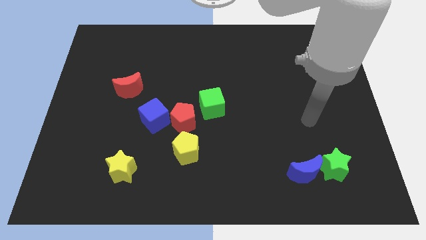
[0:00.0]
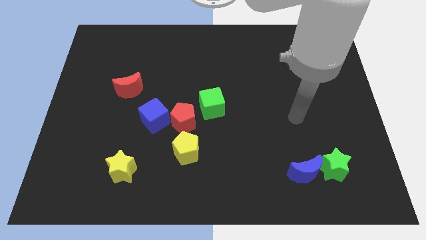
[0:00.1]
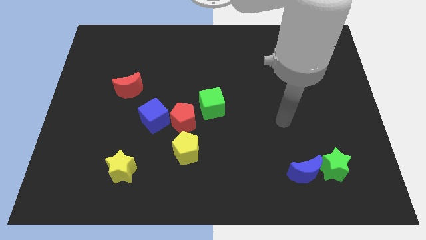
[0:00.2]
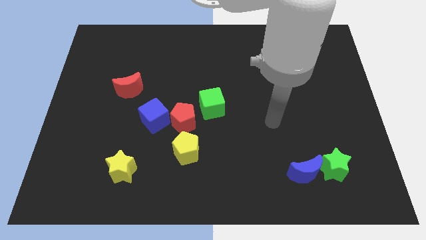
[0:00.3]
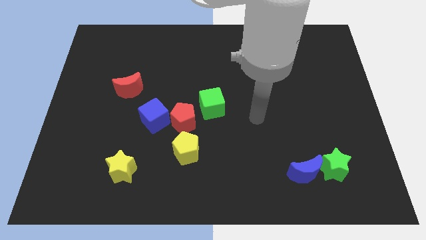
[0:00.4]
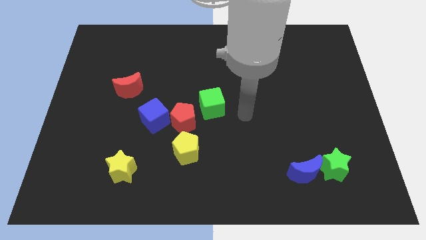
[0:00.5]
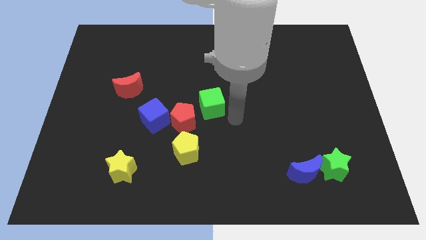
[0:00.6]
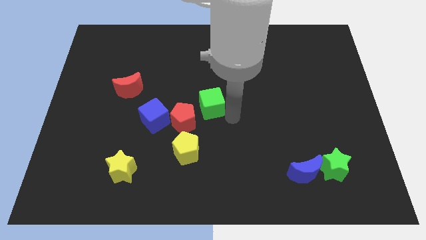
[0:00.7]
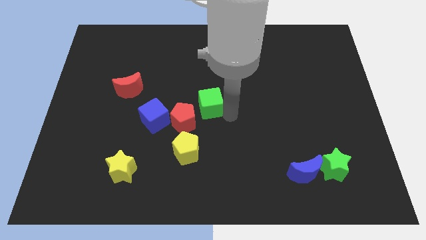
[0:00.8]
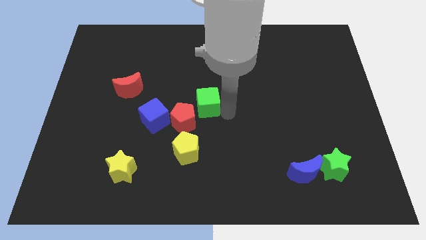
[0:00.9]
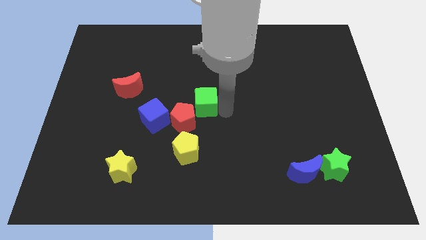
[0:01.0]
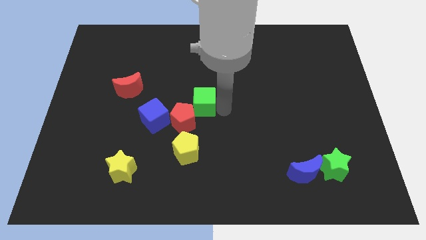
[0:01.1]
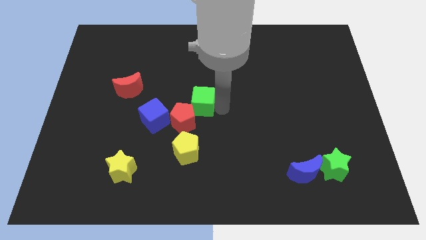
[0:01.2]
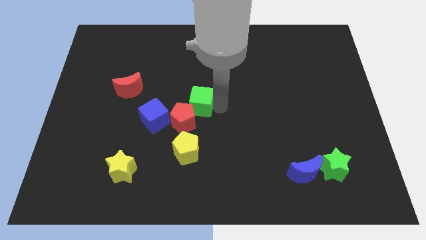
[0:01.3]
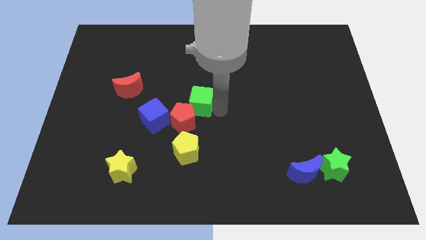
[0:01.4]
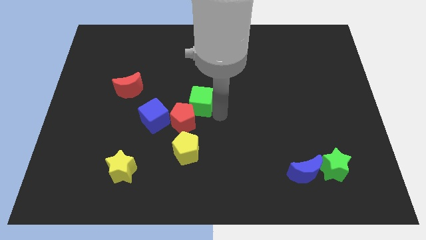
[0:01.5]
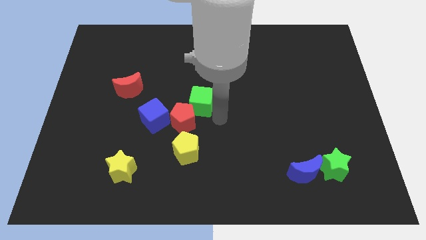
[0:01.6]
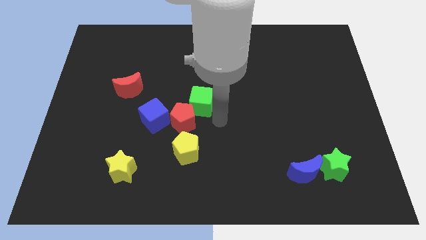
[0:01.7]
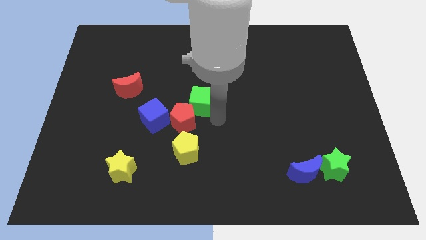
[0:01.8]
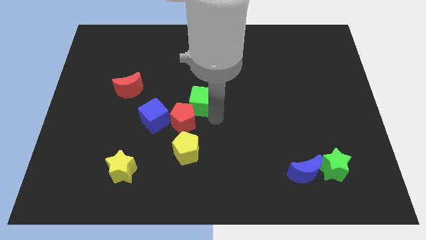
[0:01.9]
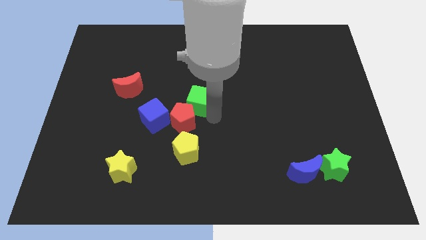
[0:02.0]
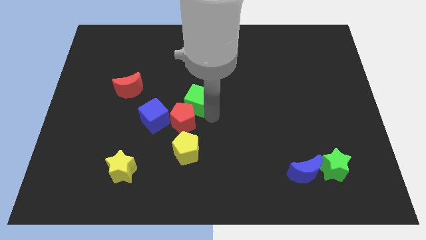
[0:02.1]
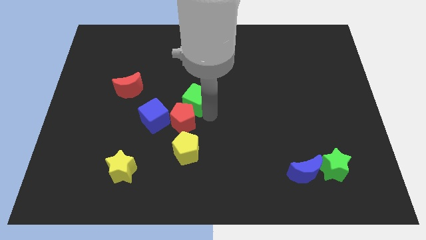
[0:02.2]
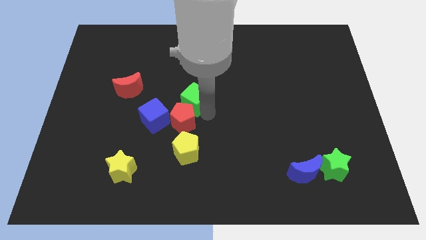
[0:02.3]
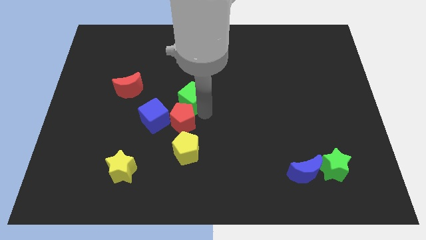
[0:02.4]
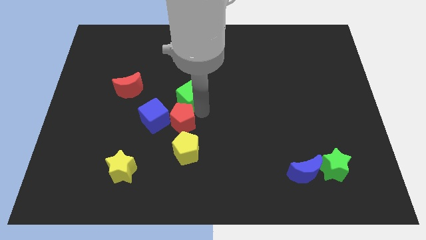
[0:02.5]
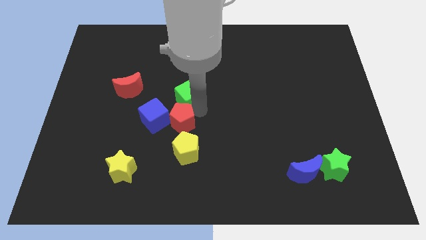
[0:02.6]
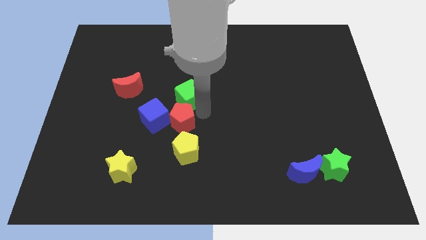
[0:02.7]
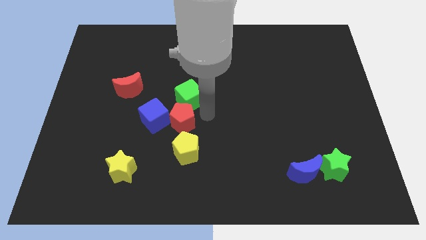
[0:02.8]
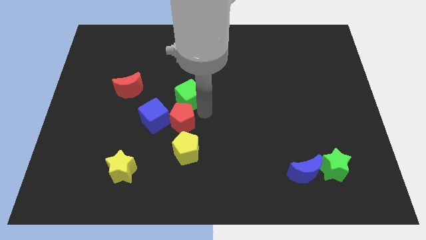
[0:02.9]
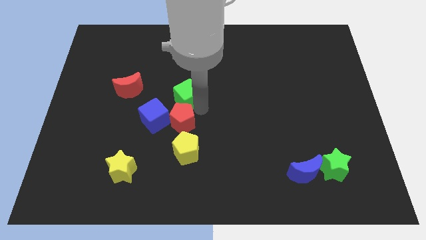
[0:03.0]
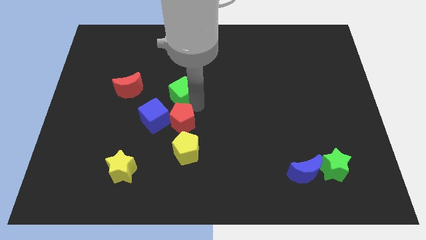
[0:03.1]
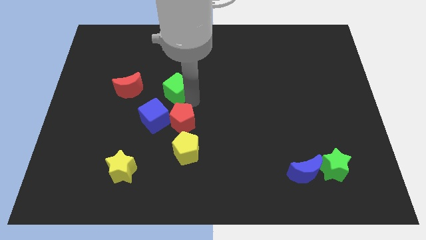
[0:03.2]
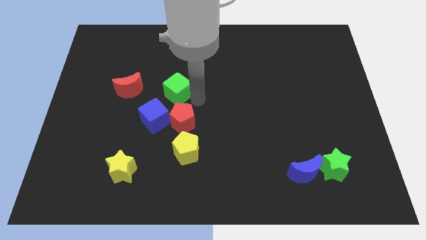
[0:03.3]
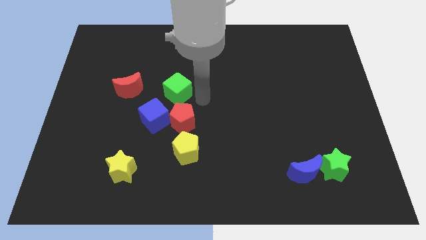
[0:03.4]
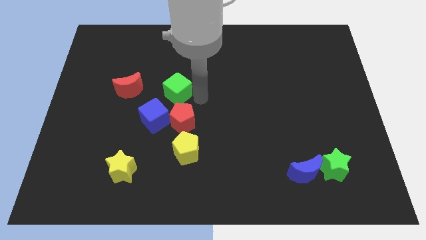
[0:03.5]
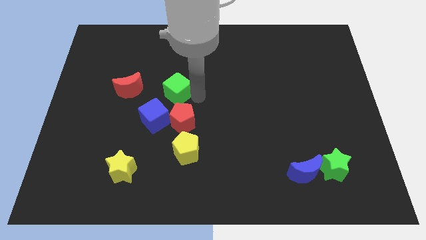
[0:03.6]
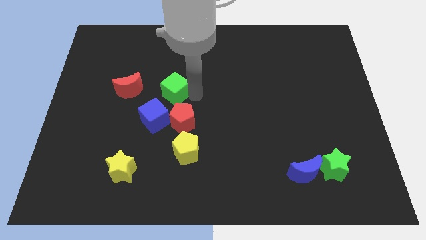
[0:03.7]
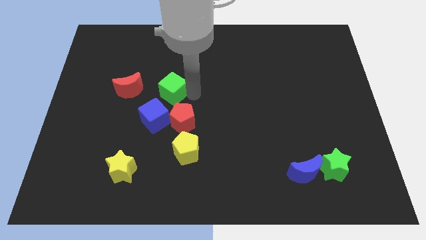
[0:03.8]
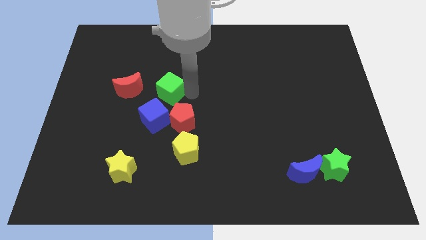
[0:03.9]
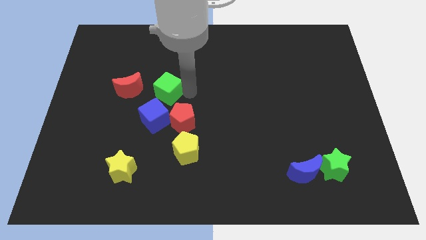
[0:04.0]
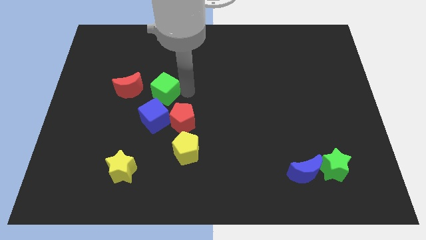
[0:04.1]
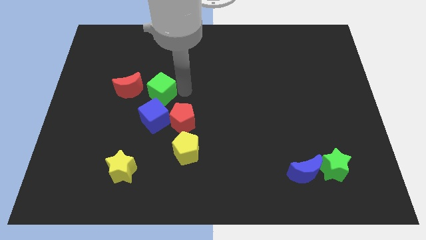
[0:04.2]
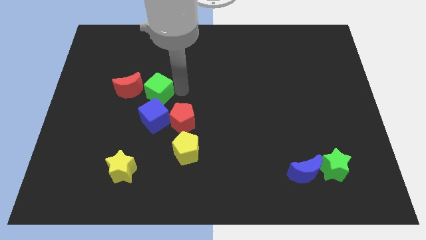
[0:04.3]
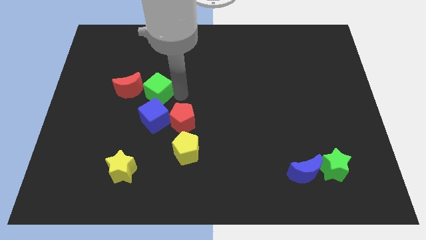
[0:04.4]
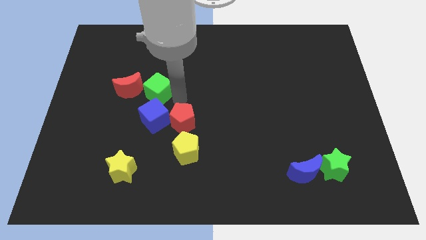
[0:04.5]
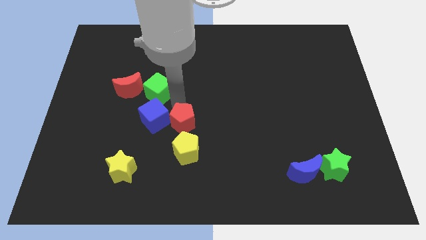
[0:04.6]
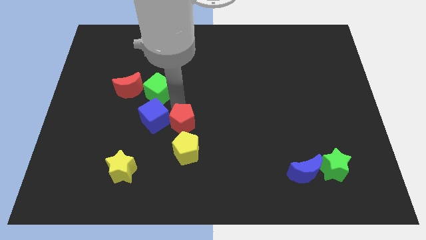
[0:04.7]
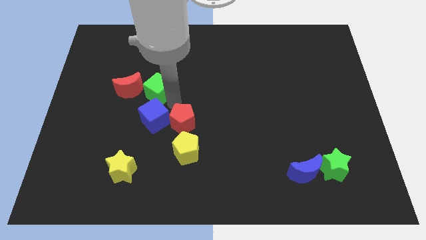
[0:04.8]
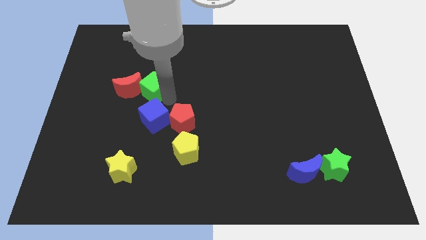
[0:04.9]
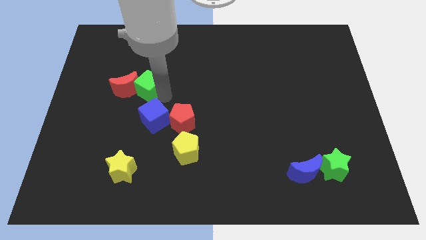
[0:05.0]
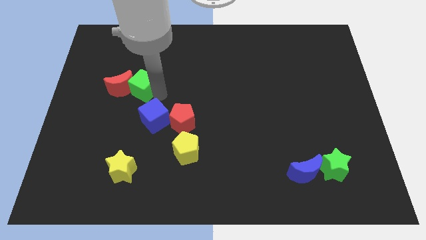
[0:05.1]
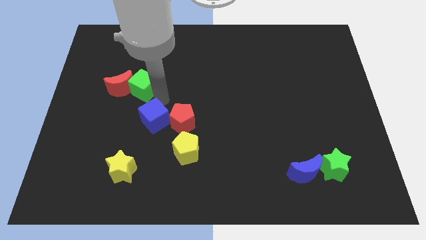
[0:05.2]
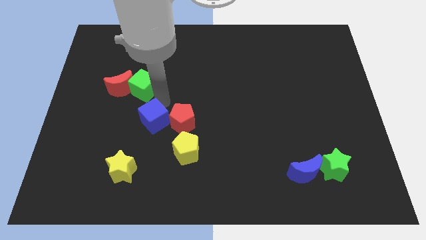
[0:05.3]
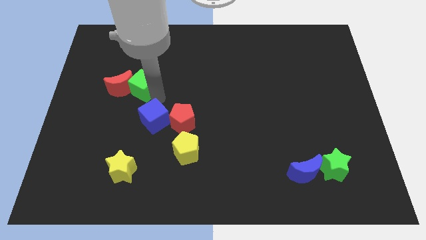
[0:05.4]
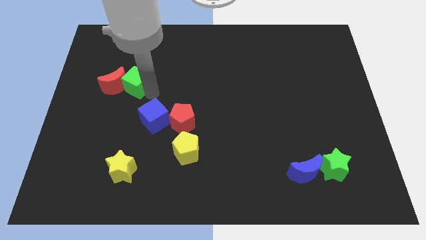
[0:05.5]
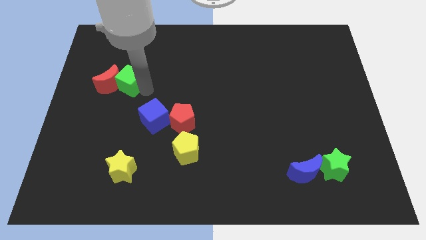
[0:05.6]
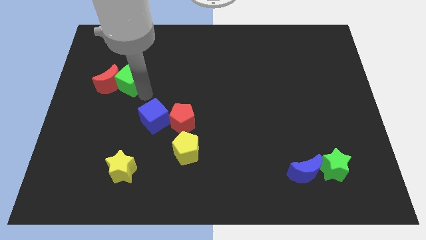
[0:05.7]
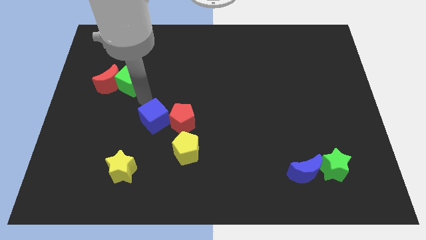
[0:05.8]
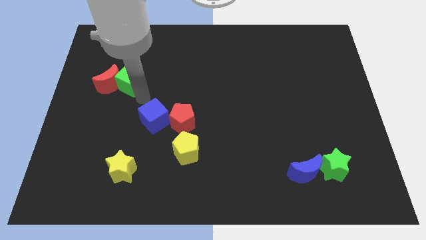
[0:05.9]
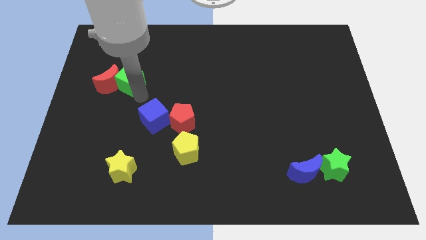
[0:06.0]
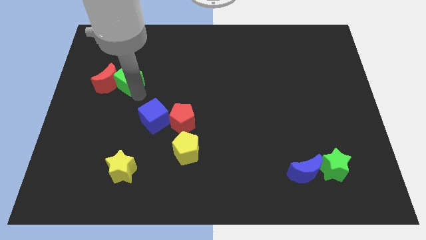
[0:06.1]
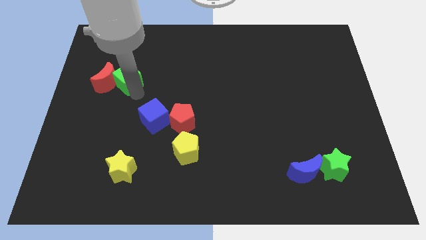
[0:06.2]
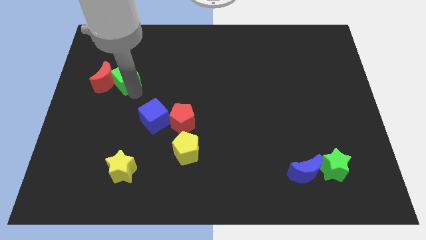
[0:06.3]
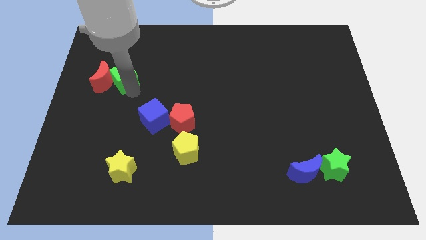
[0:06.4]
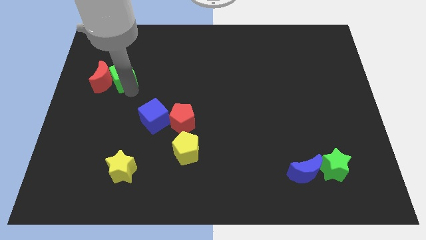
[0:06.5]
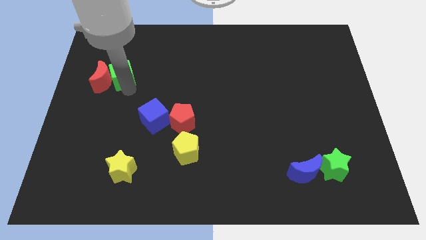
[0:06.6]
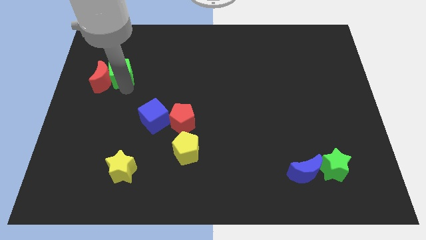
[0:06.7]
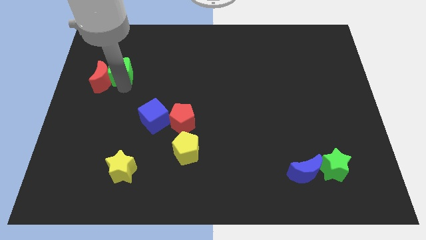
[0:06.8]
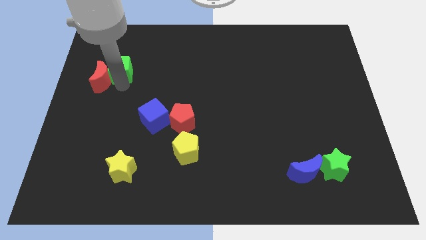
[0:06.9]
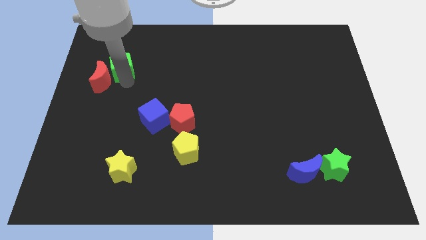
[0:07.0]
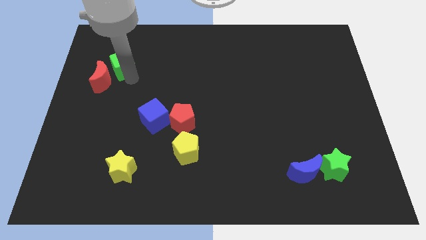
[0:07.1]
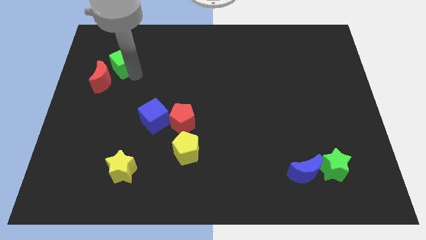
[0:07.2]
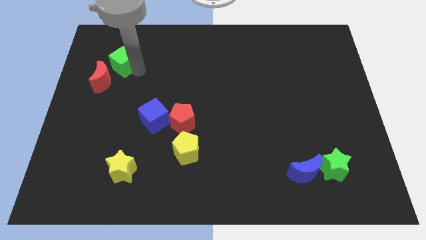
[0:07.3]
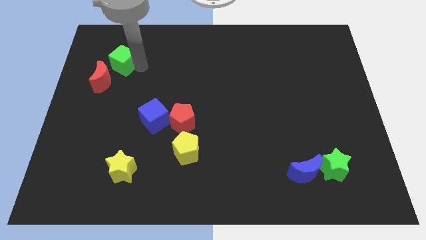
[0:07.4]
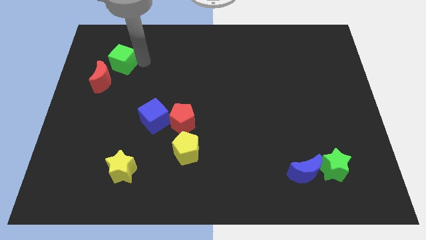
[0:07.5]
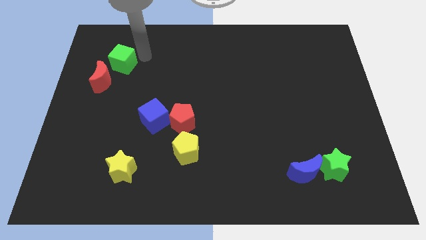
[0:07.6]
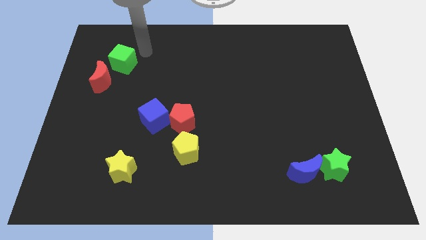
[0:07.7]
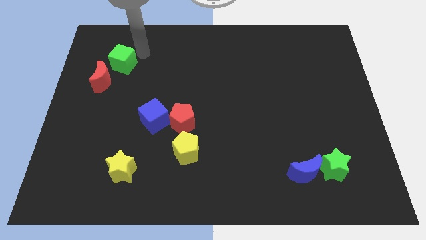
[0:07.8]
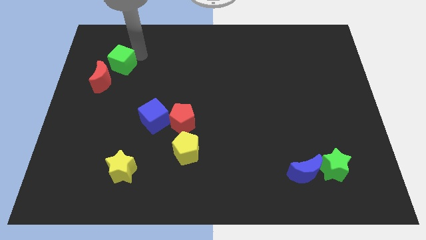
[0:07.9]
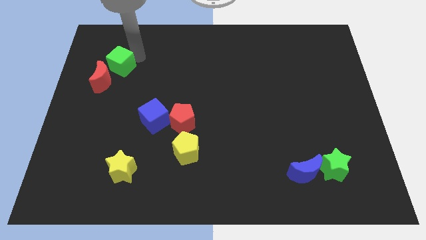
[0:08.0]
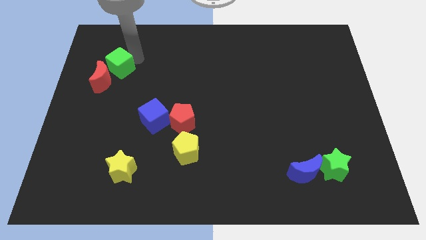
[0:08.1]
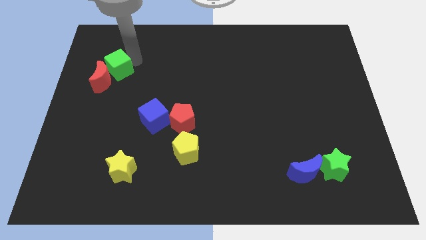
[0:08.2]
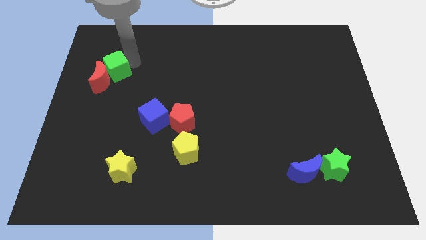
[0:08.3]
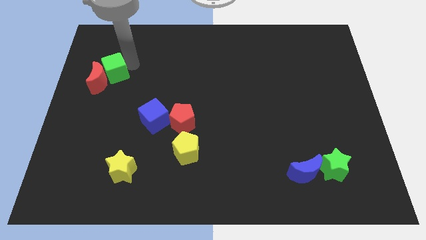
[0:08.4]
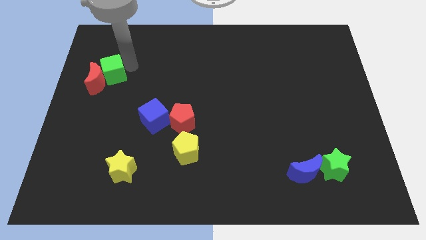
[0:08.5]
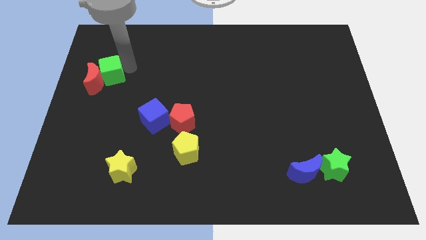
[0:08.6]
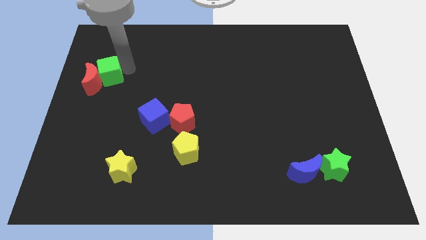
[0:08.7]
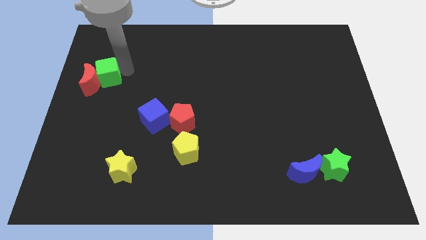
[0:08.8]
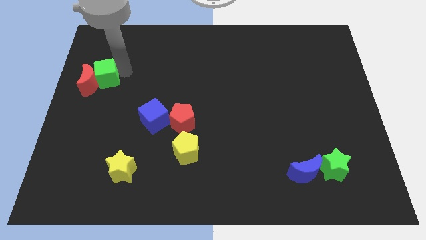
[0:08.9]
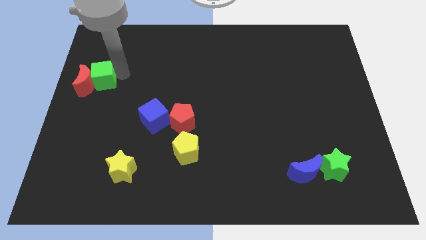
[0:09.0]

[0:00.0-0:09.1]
put the green cube to the center left
